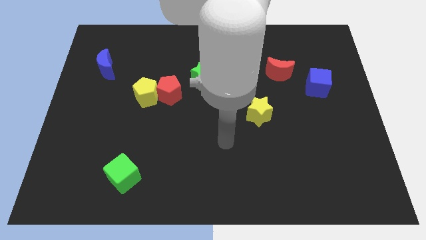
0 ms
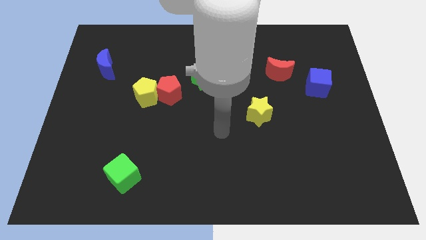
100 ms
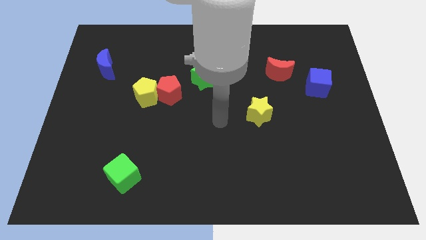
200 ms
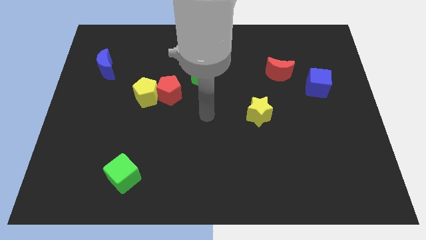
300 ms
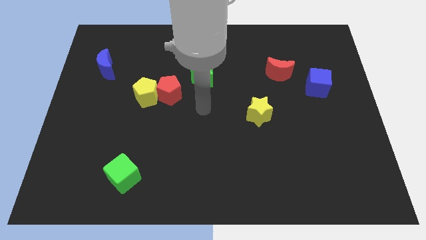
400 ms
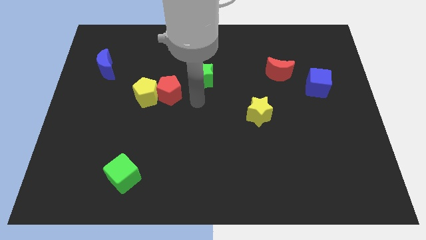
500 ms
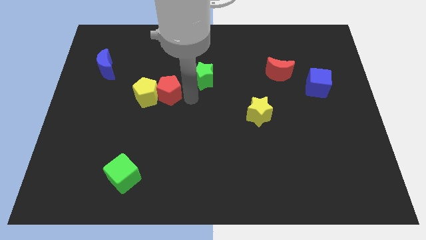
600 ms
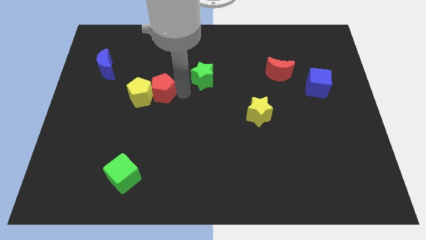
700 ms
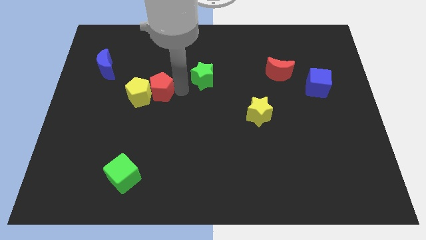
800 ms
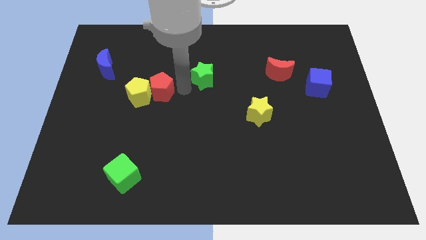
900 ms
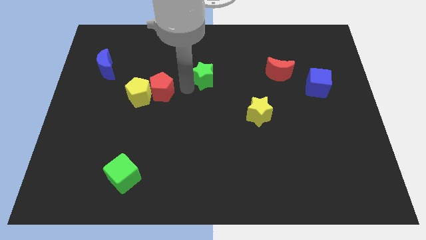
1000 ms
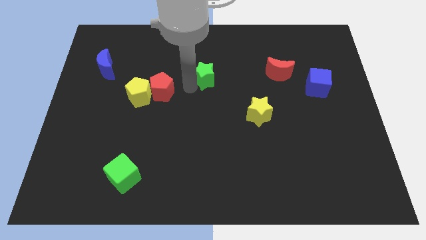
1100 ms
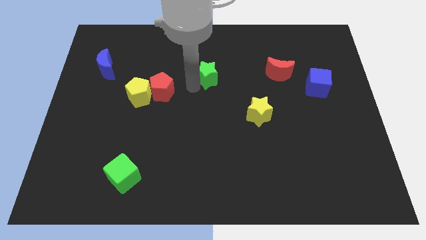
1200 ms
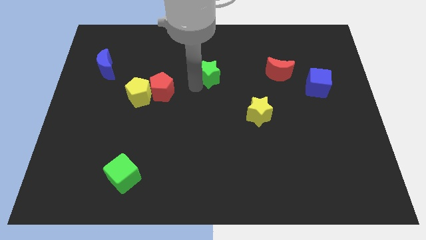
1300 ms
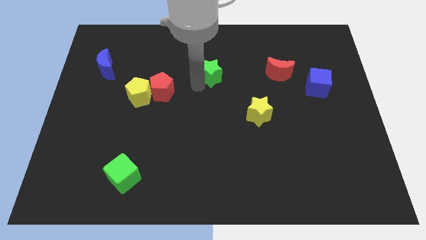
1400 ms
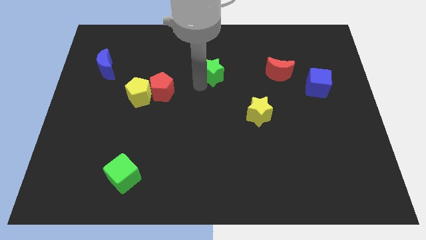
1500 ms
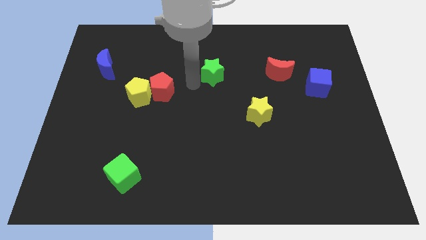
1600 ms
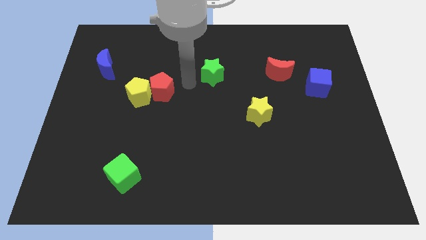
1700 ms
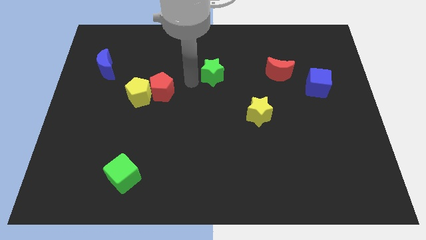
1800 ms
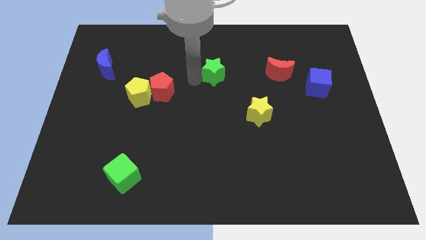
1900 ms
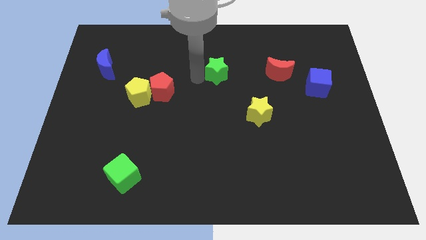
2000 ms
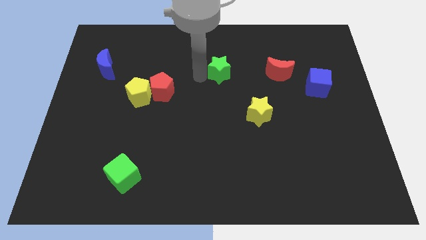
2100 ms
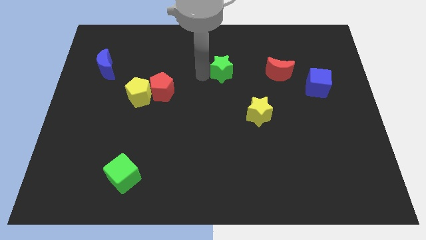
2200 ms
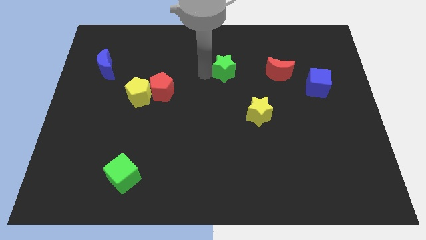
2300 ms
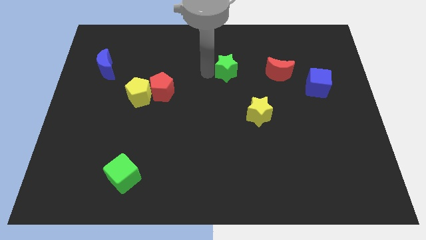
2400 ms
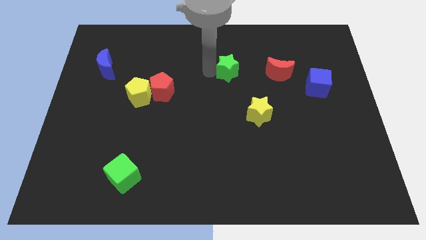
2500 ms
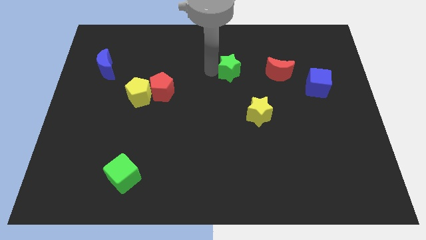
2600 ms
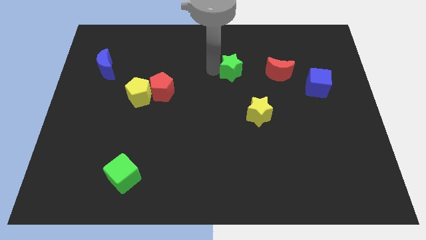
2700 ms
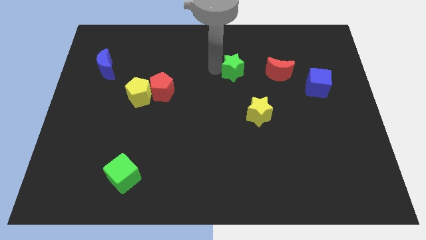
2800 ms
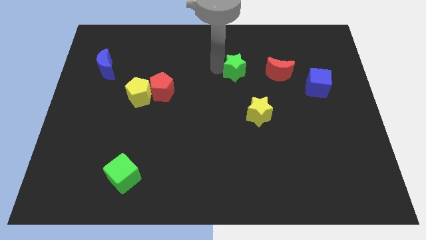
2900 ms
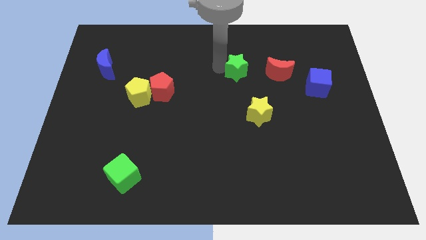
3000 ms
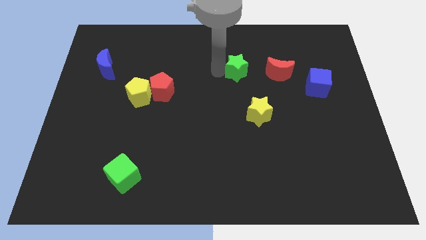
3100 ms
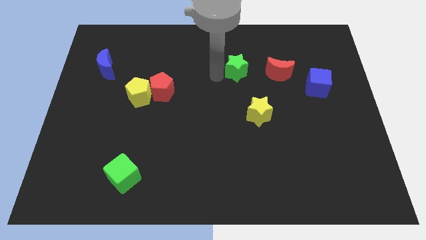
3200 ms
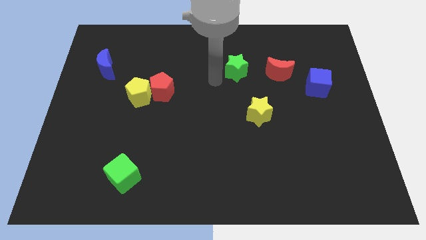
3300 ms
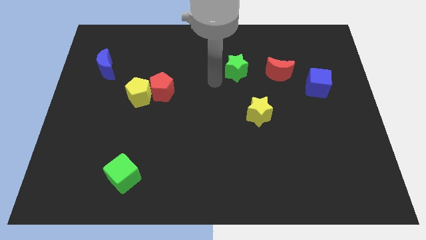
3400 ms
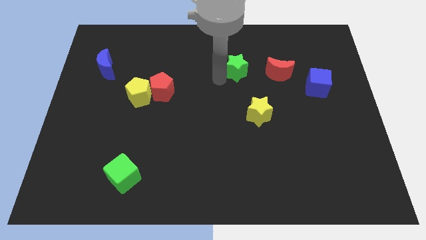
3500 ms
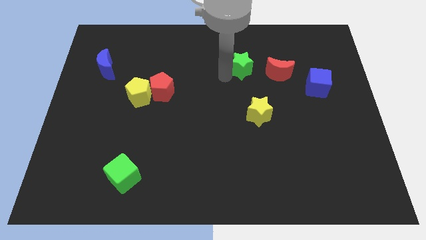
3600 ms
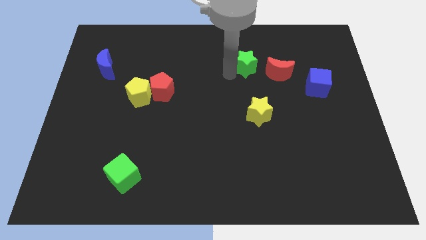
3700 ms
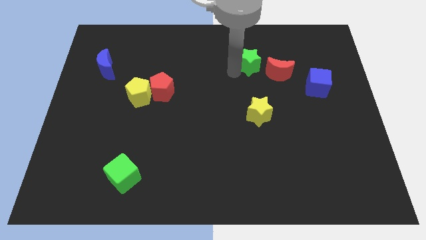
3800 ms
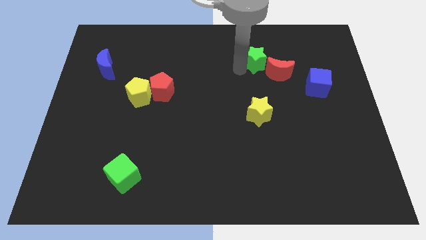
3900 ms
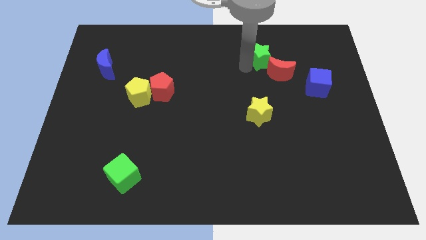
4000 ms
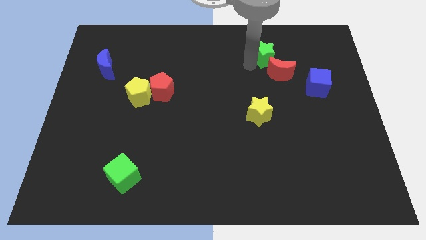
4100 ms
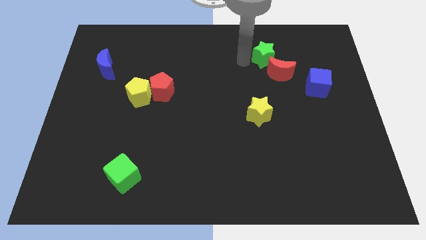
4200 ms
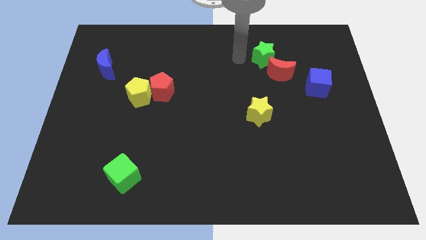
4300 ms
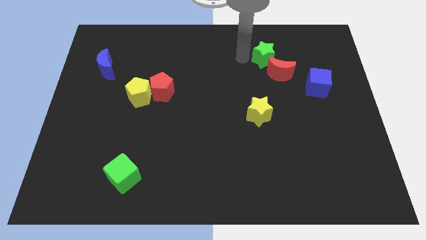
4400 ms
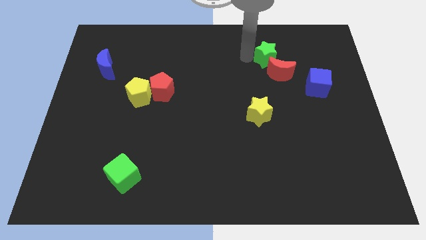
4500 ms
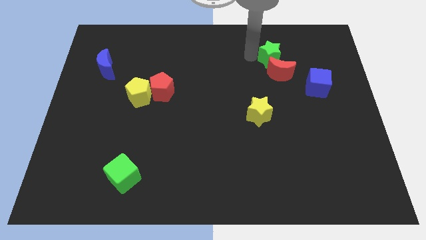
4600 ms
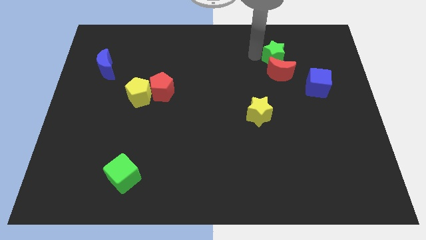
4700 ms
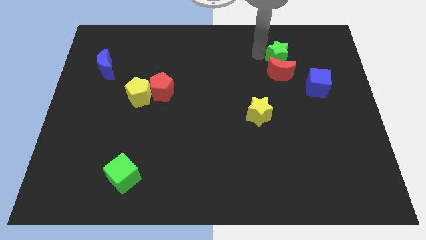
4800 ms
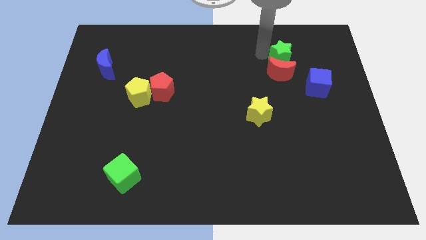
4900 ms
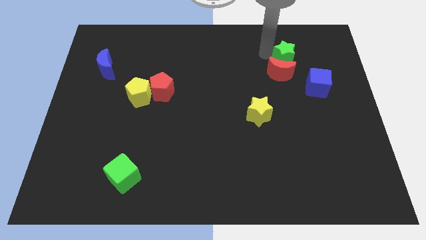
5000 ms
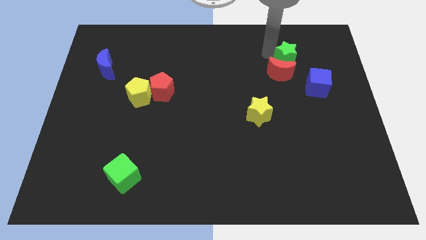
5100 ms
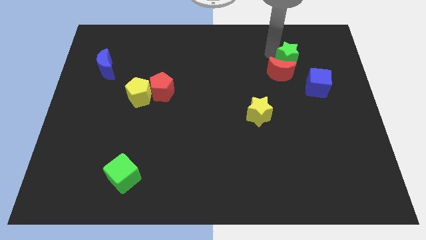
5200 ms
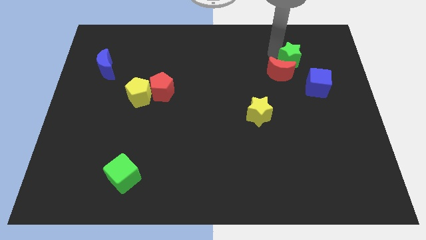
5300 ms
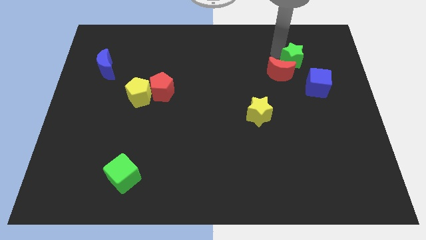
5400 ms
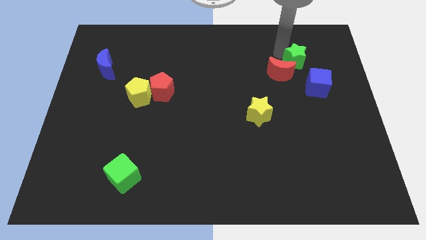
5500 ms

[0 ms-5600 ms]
put the green star to the top of the blue cube

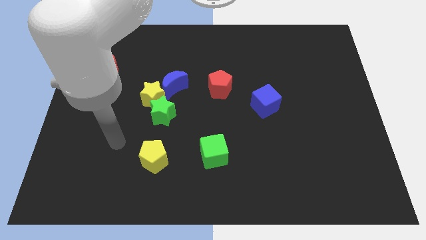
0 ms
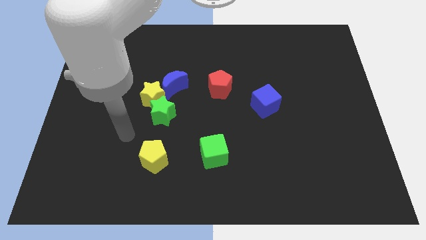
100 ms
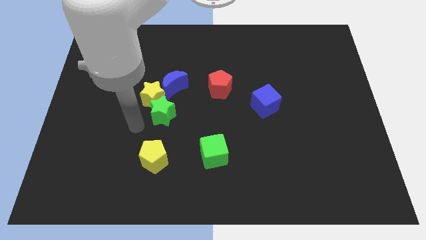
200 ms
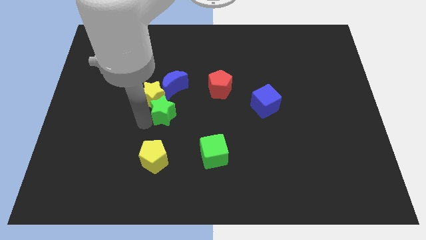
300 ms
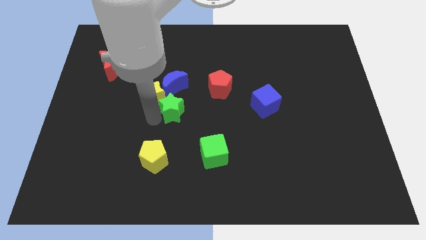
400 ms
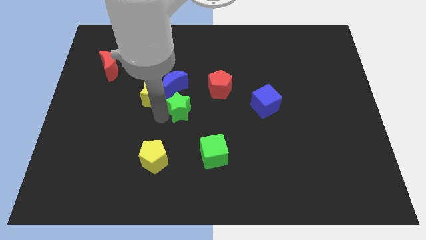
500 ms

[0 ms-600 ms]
push the green star to the bottom right side of the blue moon

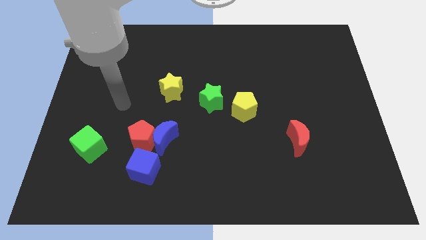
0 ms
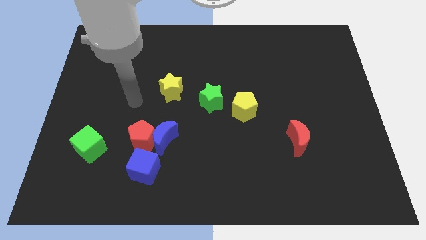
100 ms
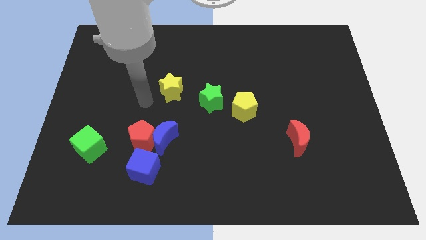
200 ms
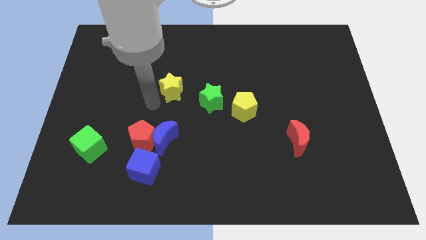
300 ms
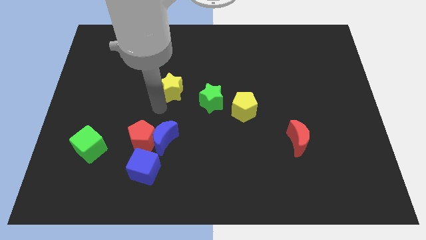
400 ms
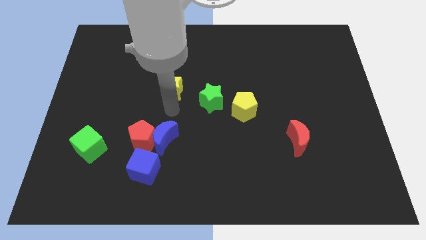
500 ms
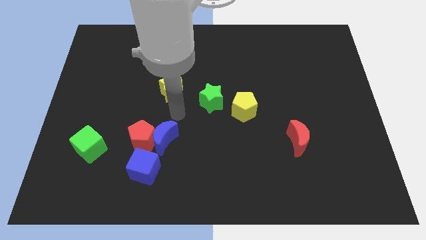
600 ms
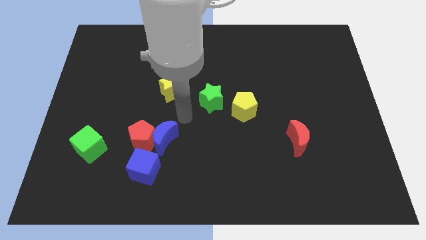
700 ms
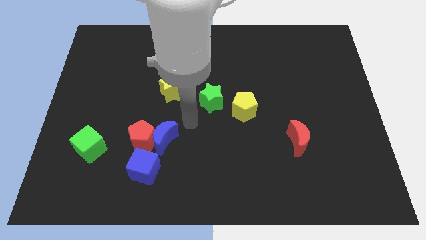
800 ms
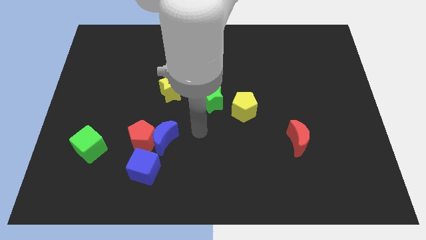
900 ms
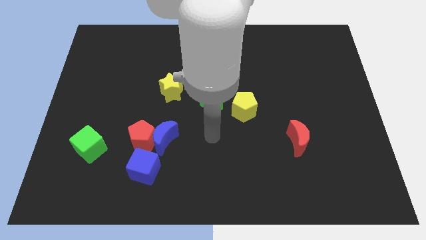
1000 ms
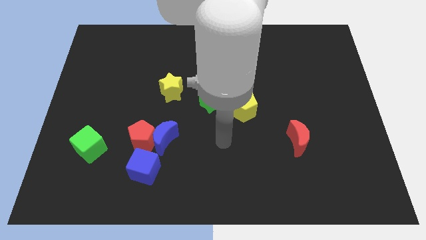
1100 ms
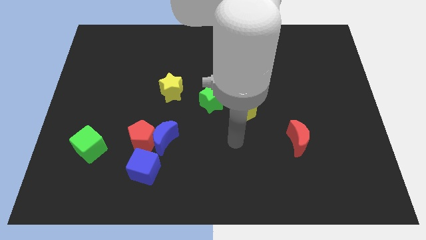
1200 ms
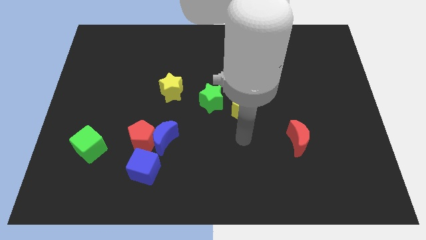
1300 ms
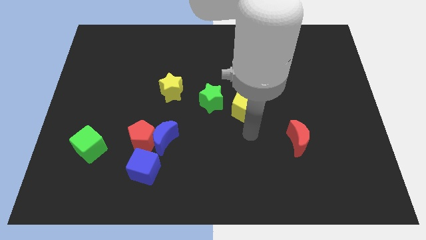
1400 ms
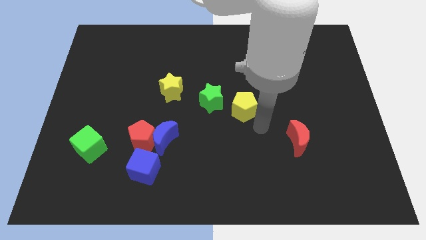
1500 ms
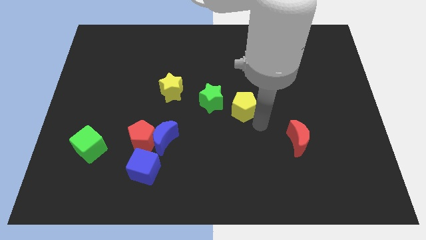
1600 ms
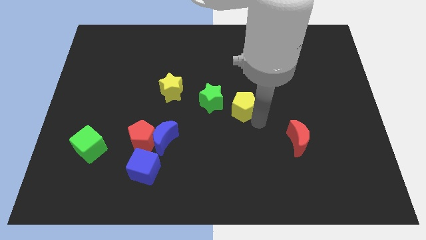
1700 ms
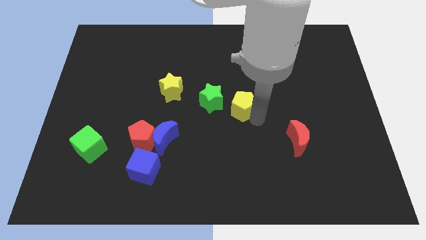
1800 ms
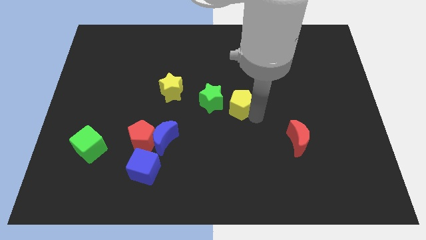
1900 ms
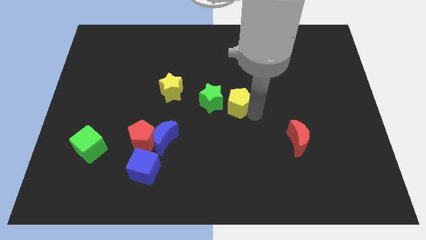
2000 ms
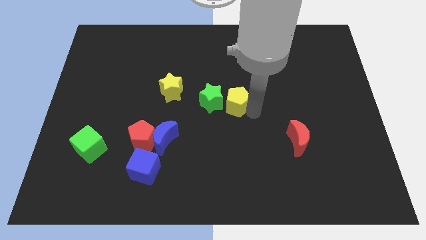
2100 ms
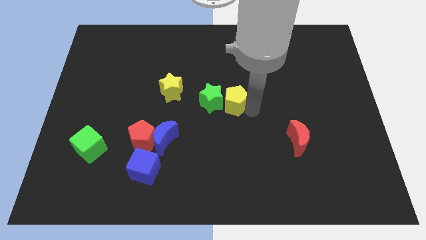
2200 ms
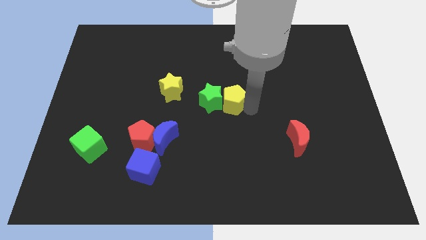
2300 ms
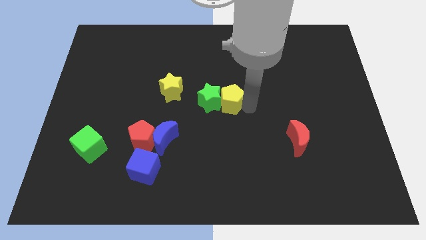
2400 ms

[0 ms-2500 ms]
push the yellow pentagon right of the yellow star
